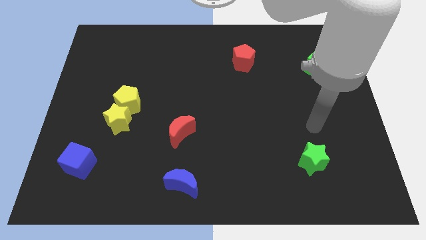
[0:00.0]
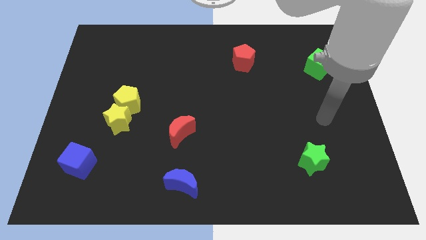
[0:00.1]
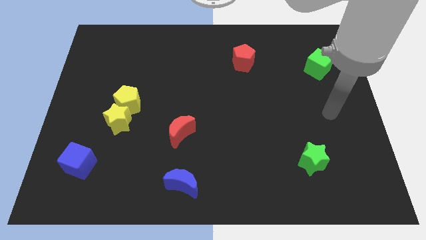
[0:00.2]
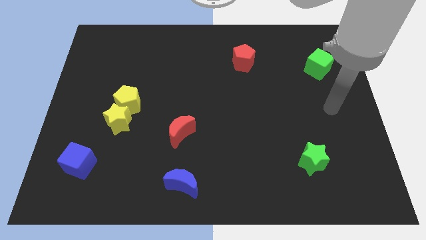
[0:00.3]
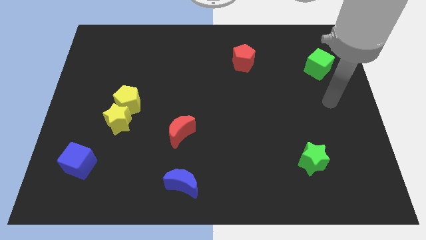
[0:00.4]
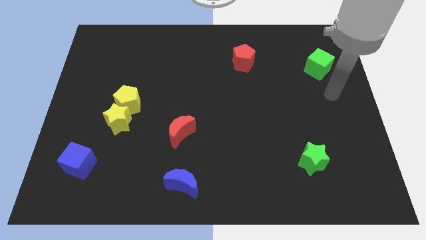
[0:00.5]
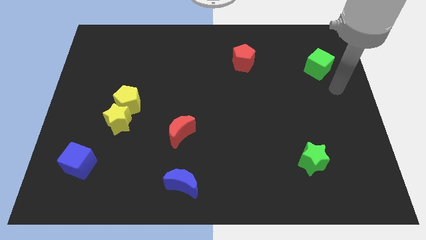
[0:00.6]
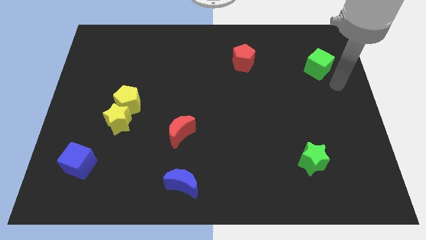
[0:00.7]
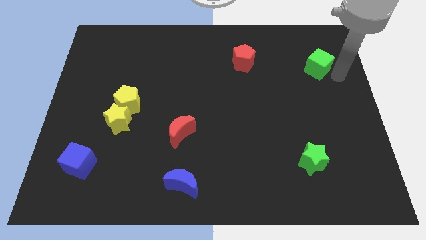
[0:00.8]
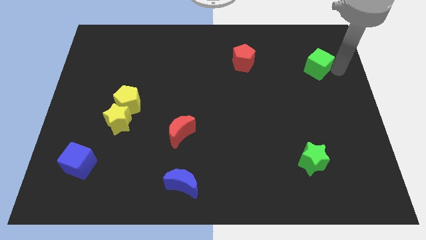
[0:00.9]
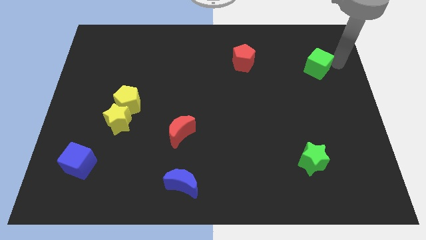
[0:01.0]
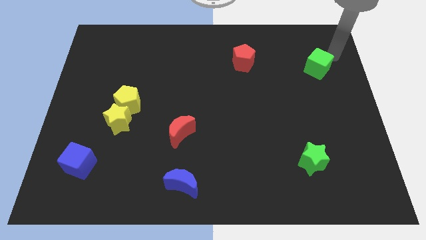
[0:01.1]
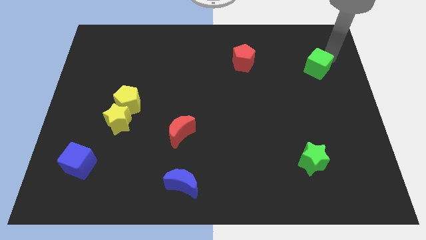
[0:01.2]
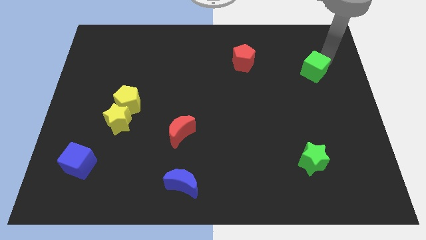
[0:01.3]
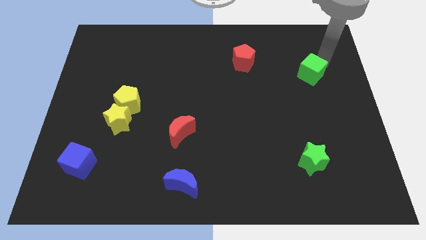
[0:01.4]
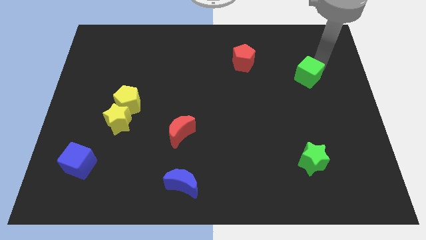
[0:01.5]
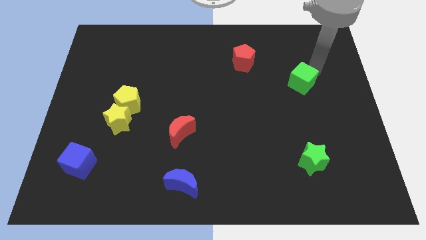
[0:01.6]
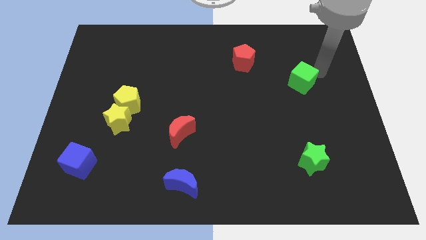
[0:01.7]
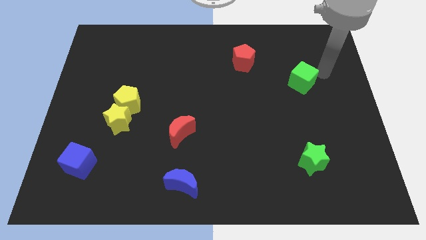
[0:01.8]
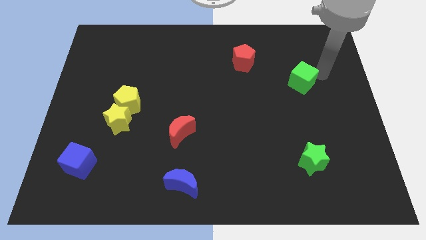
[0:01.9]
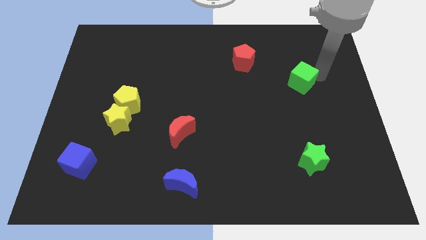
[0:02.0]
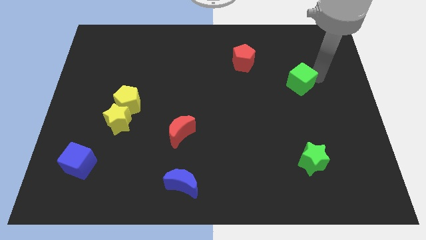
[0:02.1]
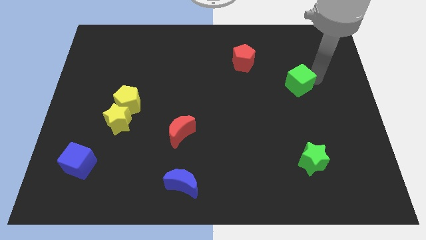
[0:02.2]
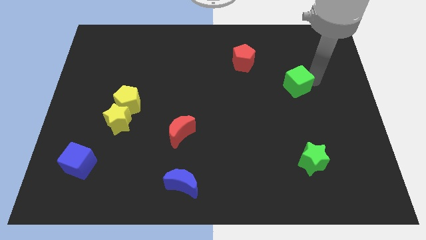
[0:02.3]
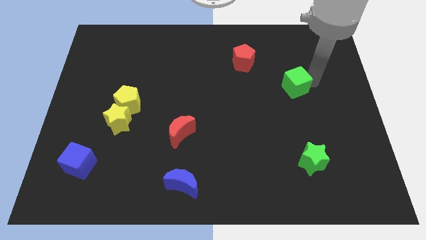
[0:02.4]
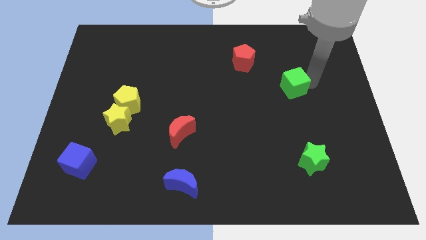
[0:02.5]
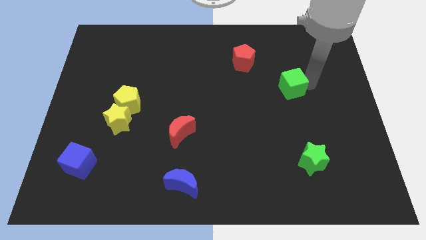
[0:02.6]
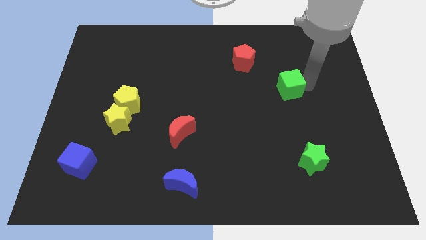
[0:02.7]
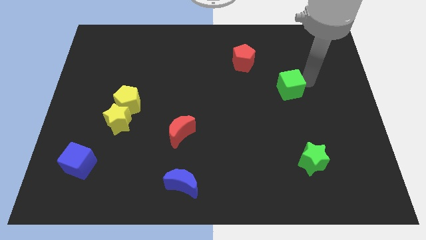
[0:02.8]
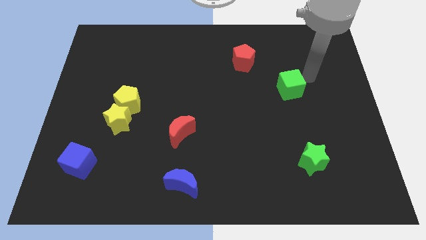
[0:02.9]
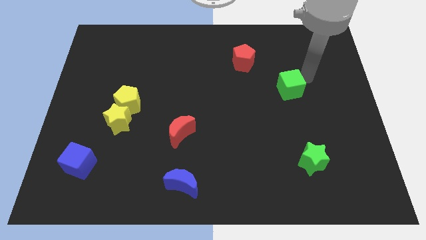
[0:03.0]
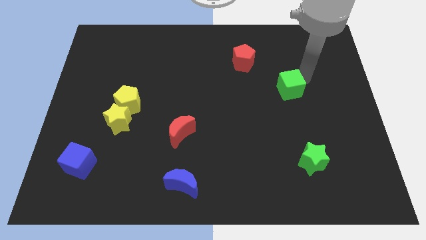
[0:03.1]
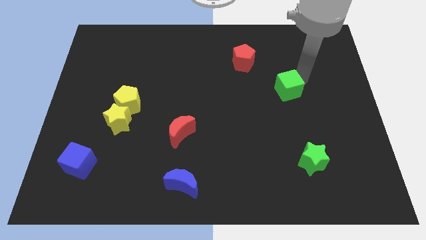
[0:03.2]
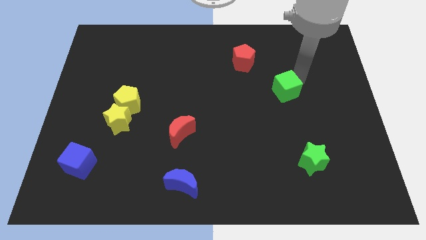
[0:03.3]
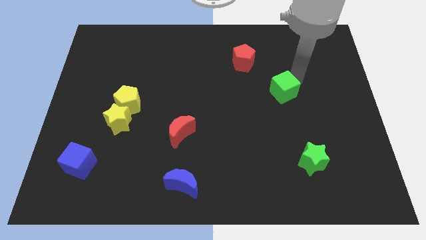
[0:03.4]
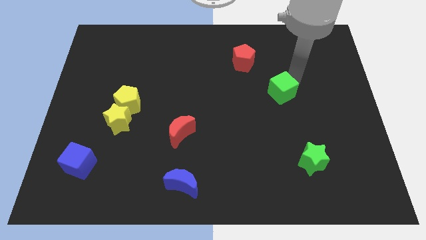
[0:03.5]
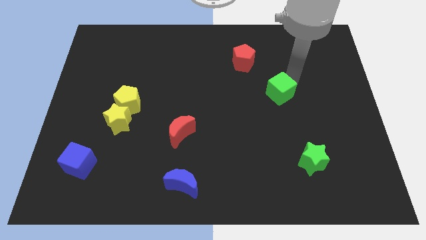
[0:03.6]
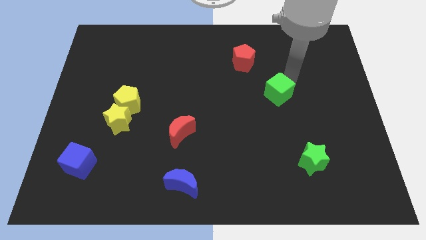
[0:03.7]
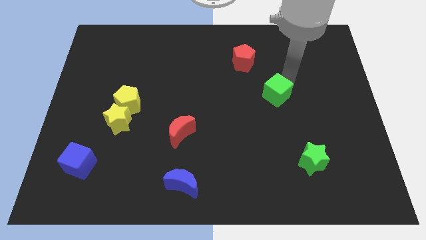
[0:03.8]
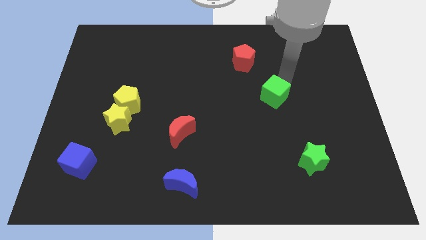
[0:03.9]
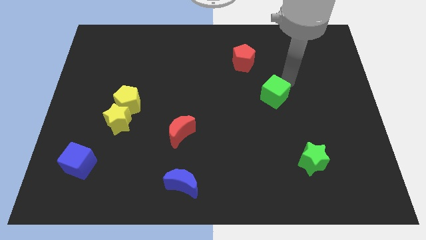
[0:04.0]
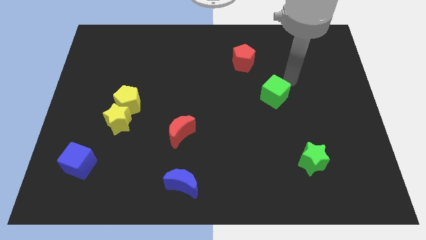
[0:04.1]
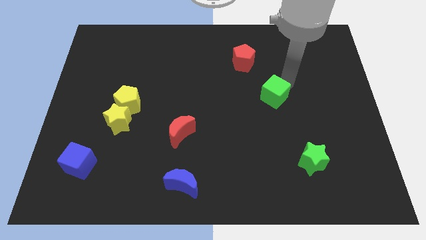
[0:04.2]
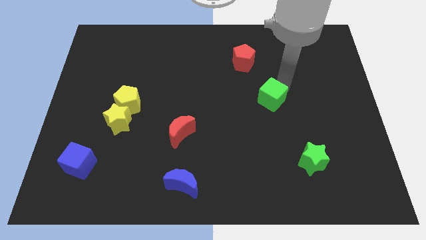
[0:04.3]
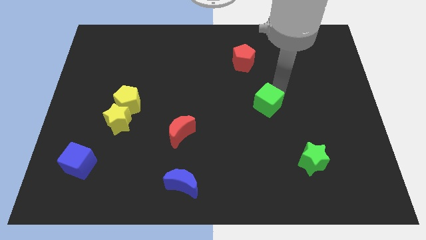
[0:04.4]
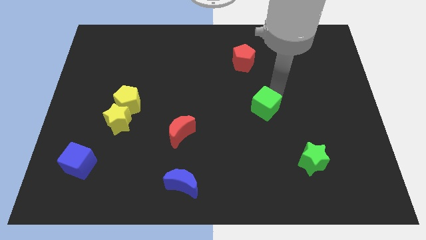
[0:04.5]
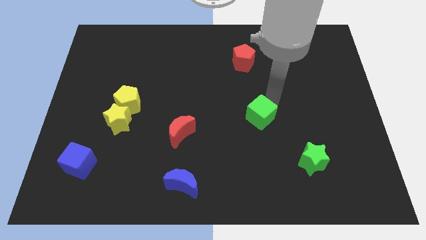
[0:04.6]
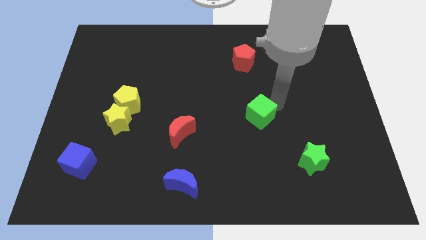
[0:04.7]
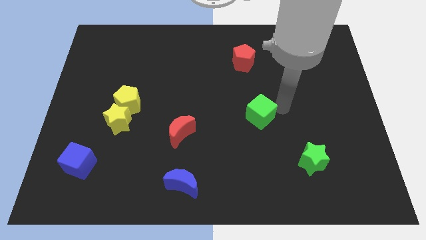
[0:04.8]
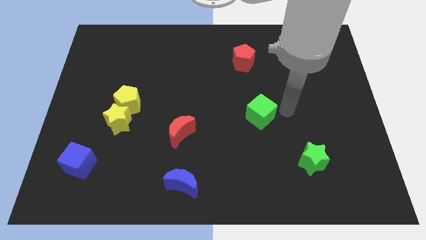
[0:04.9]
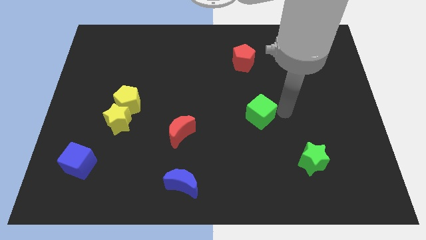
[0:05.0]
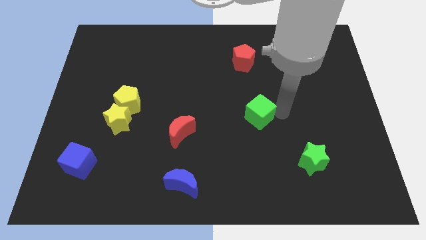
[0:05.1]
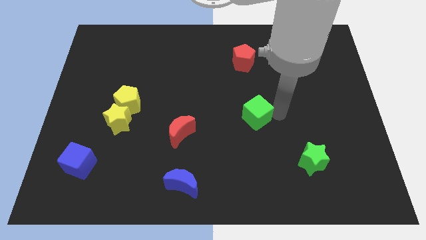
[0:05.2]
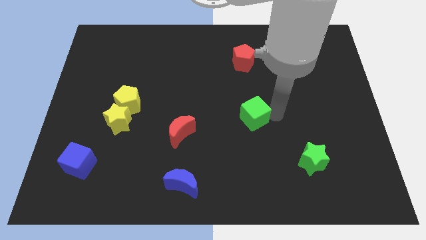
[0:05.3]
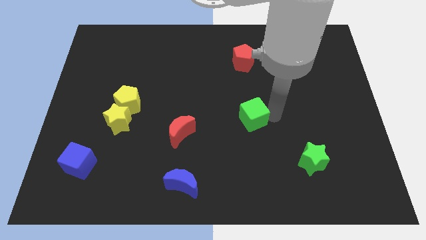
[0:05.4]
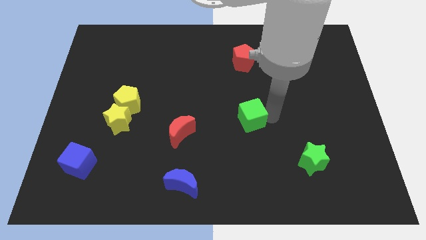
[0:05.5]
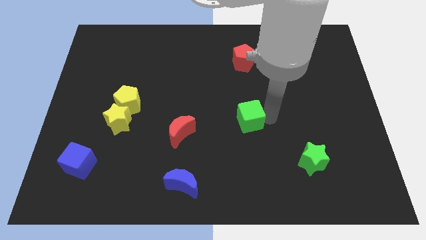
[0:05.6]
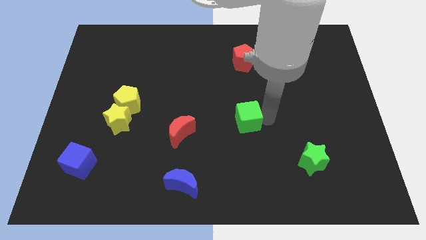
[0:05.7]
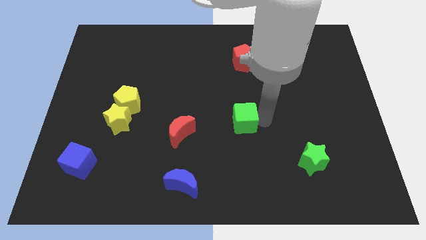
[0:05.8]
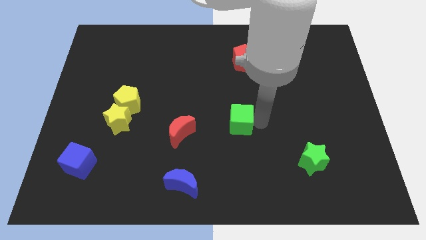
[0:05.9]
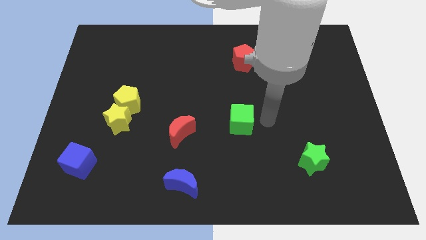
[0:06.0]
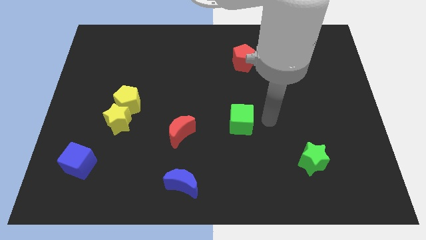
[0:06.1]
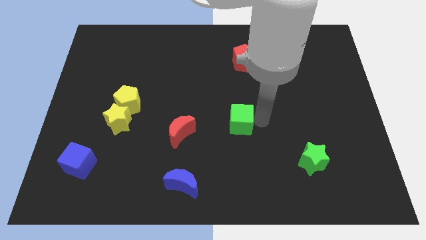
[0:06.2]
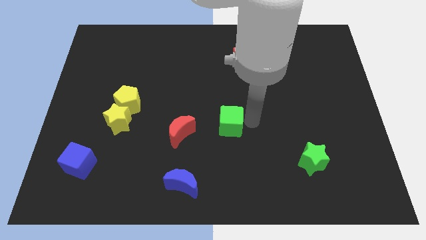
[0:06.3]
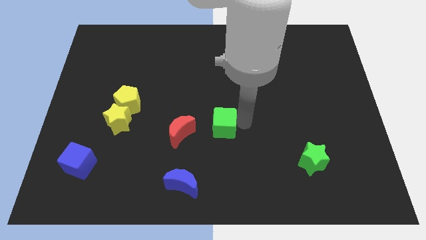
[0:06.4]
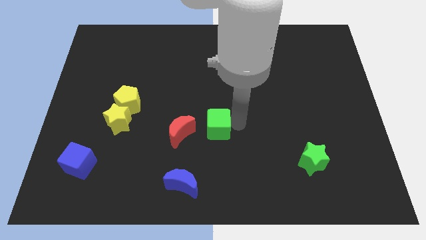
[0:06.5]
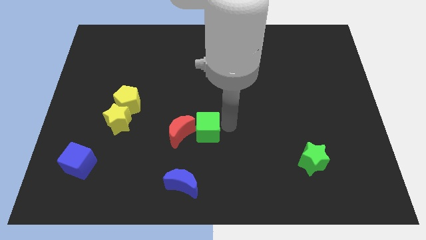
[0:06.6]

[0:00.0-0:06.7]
slide the green cube close to the red moon
